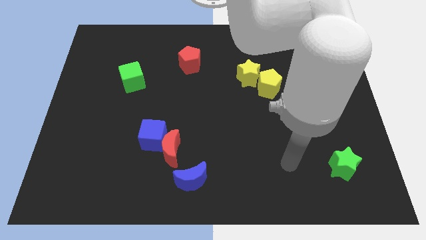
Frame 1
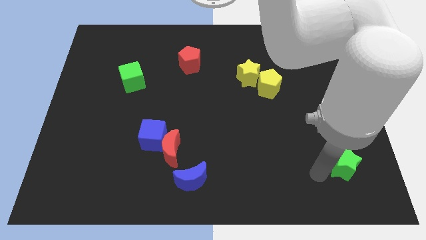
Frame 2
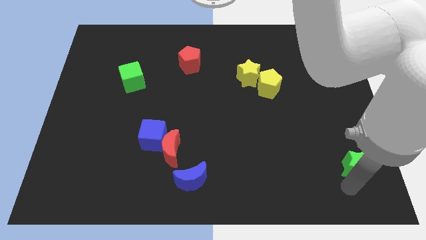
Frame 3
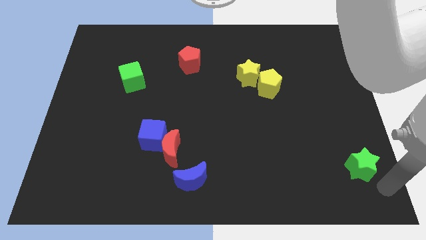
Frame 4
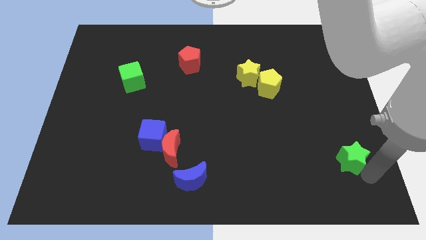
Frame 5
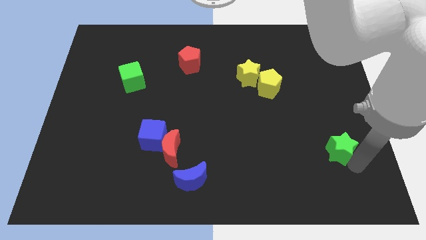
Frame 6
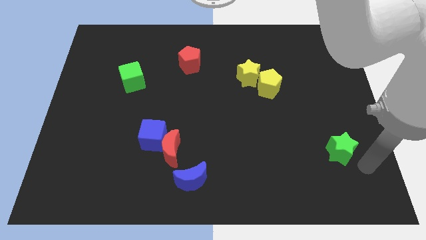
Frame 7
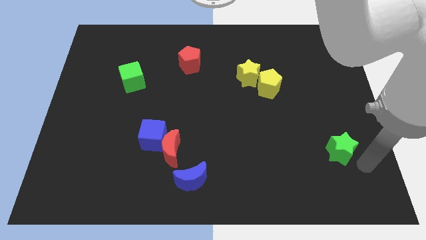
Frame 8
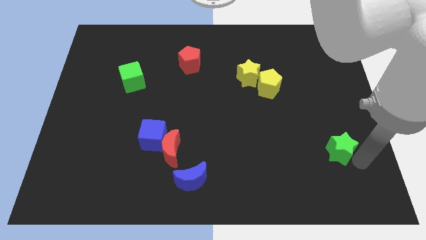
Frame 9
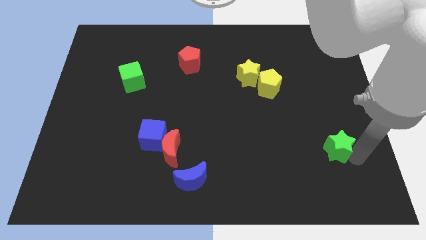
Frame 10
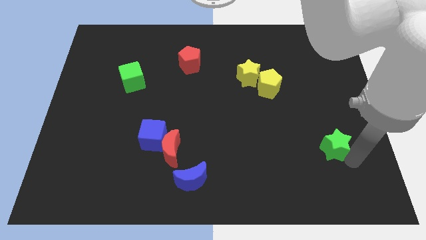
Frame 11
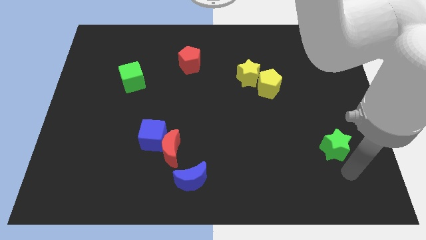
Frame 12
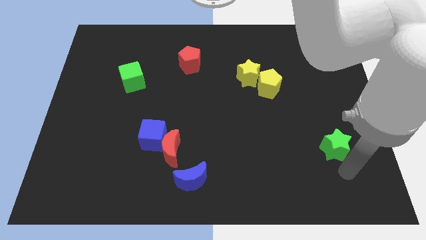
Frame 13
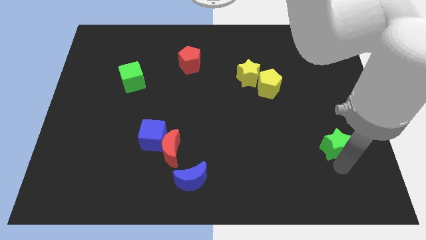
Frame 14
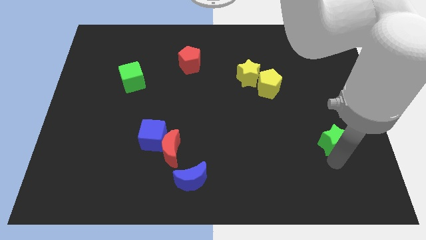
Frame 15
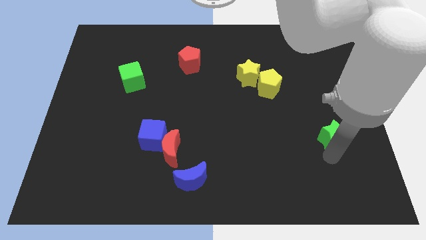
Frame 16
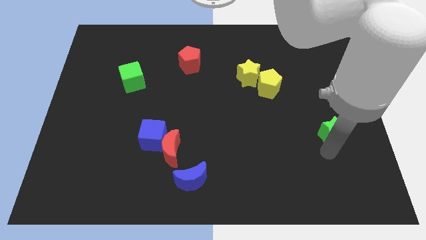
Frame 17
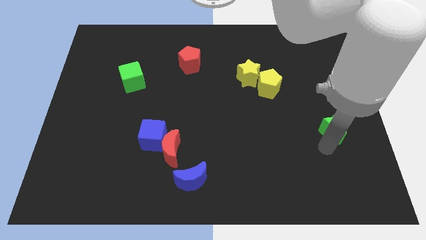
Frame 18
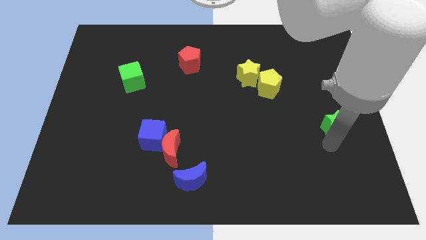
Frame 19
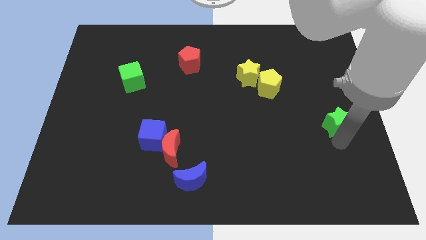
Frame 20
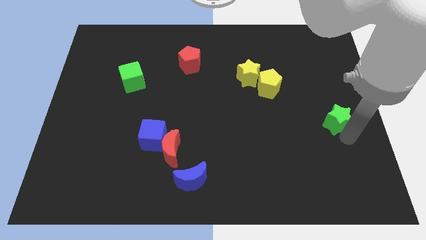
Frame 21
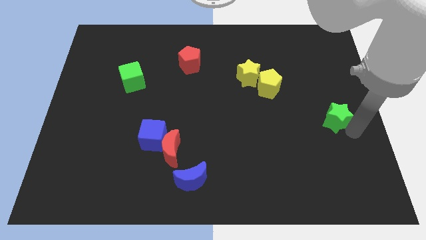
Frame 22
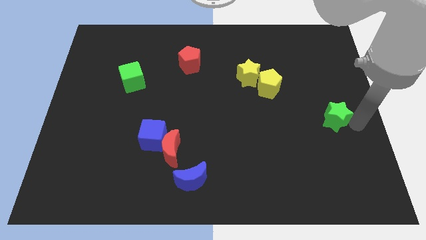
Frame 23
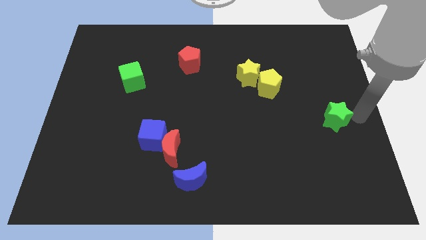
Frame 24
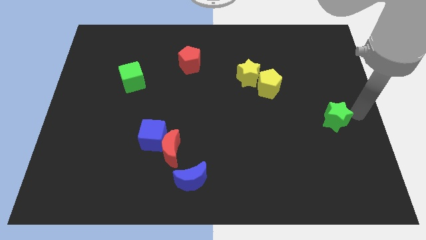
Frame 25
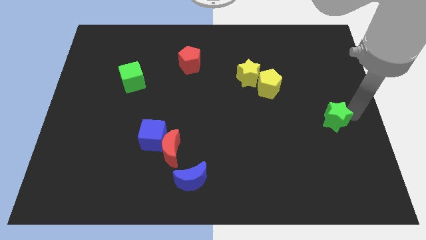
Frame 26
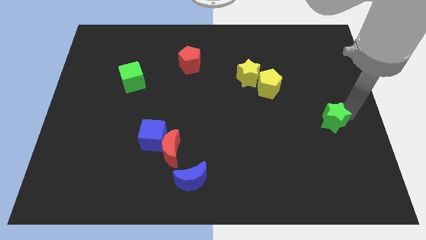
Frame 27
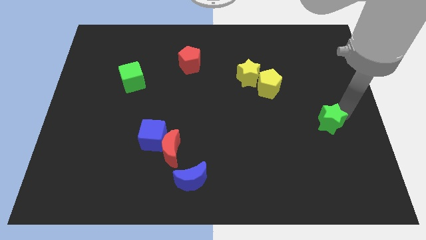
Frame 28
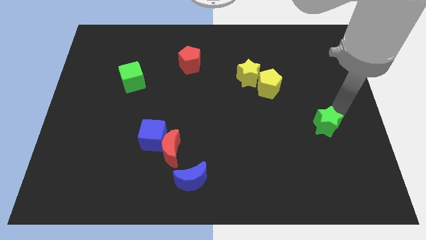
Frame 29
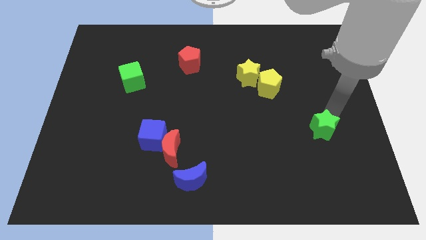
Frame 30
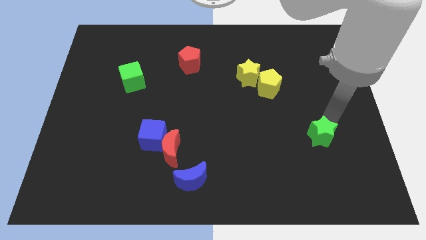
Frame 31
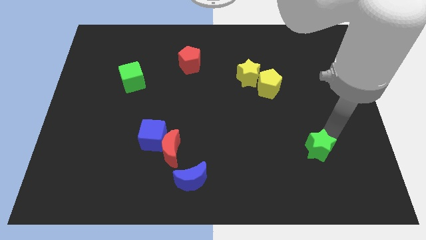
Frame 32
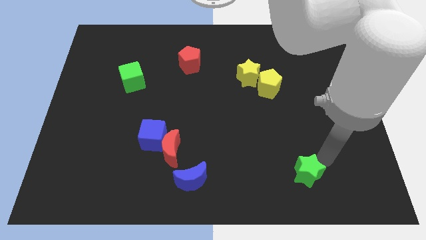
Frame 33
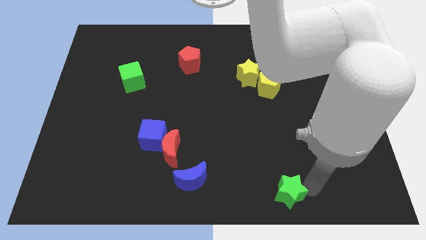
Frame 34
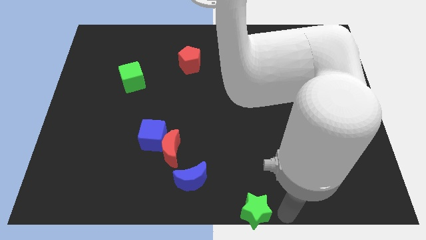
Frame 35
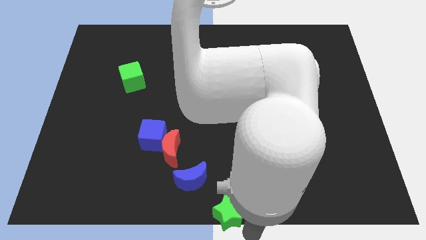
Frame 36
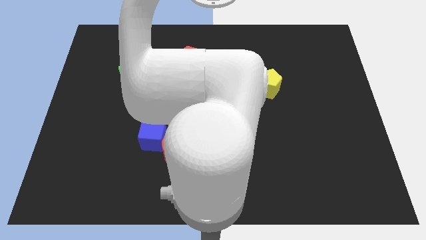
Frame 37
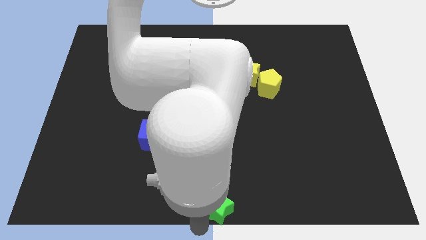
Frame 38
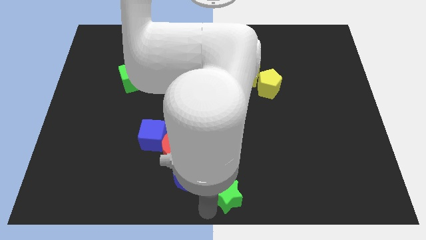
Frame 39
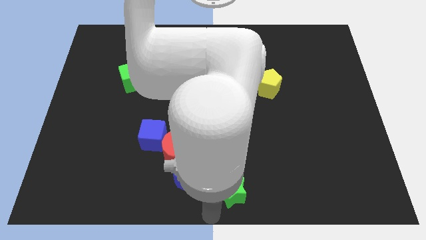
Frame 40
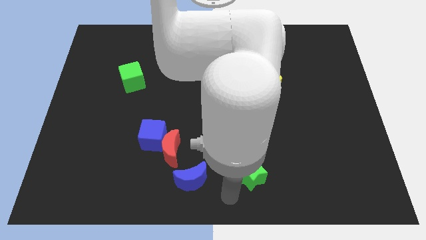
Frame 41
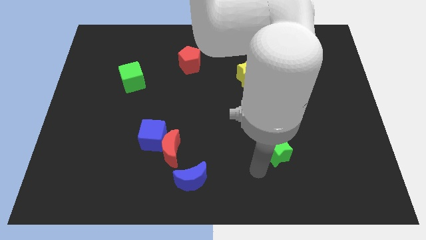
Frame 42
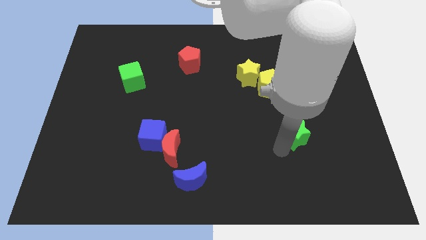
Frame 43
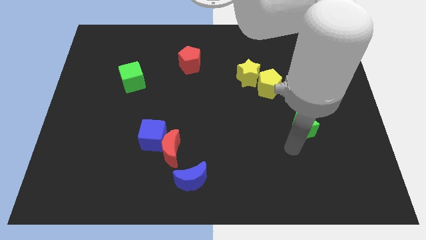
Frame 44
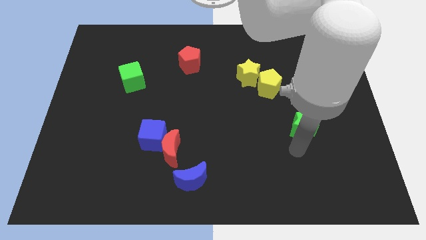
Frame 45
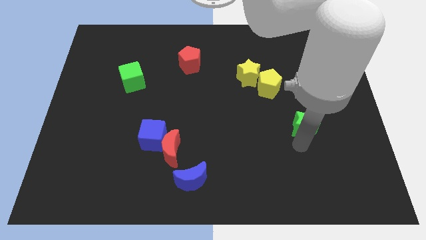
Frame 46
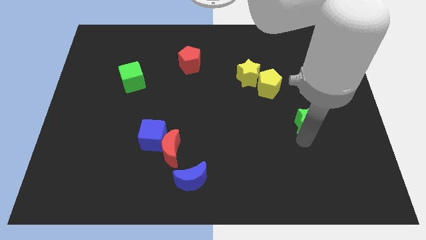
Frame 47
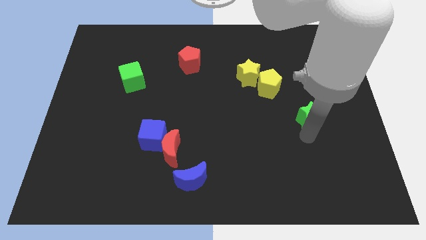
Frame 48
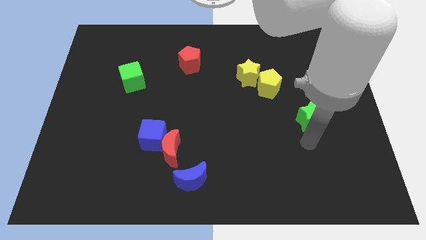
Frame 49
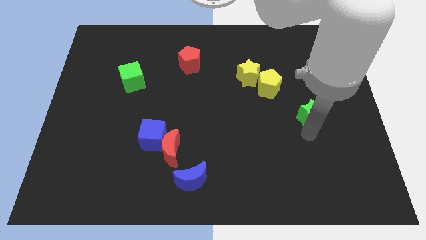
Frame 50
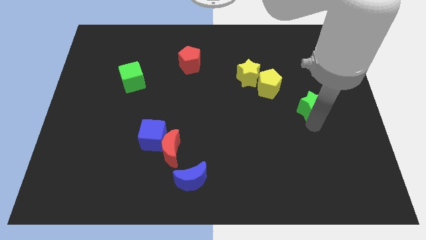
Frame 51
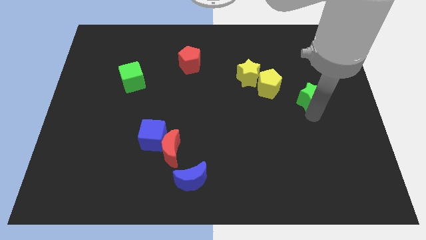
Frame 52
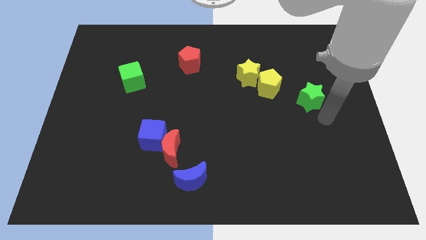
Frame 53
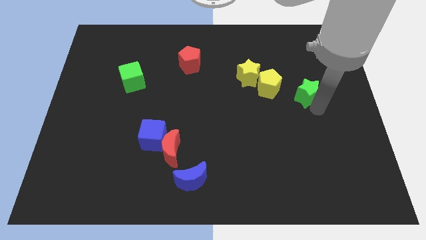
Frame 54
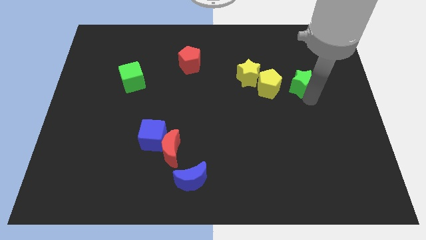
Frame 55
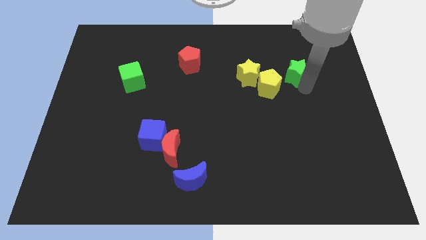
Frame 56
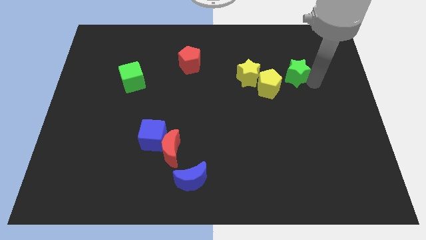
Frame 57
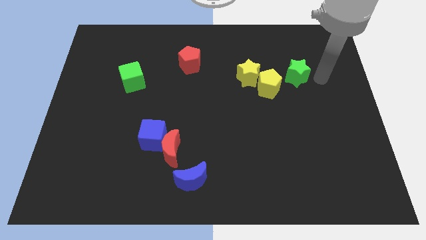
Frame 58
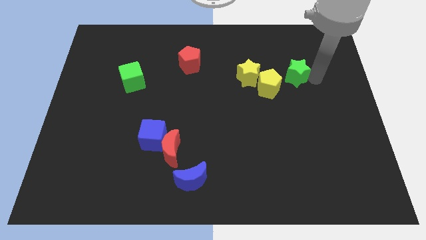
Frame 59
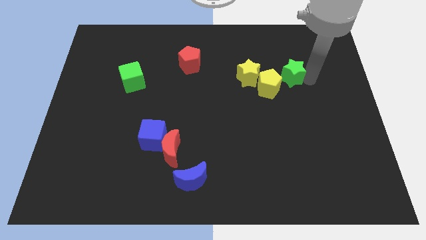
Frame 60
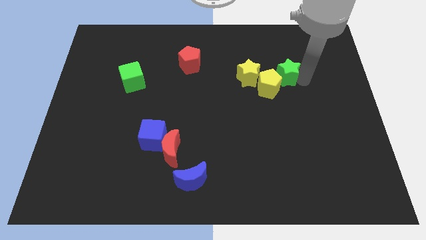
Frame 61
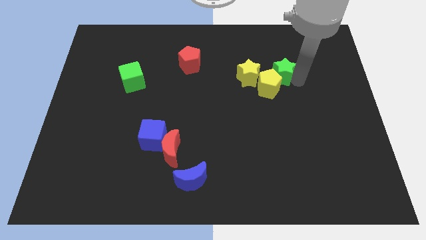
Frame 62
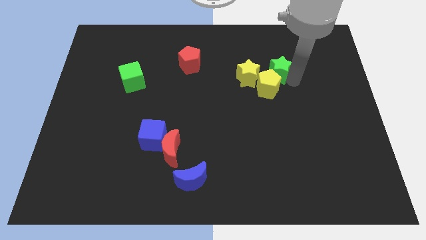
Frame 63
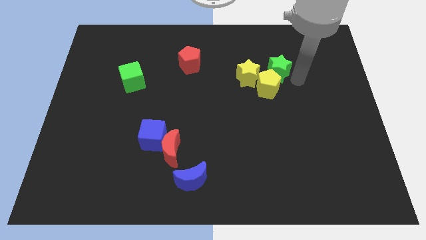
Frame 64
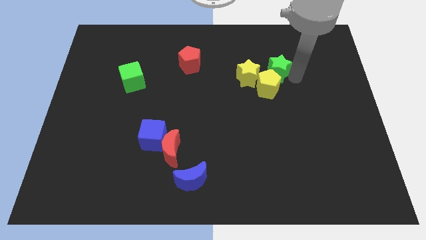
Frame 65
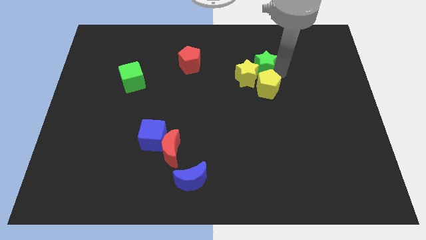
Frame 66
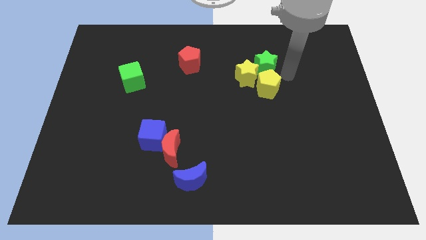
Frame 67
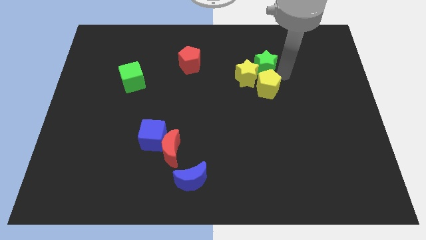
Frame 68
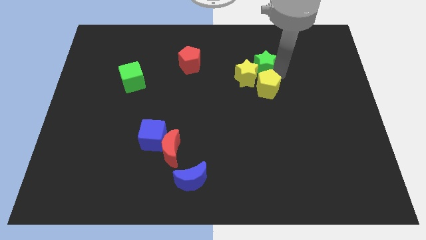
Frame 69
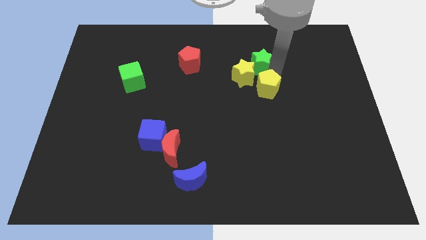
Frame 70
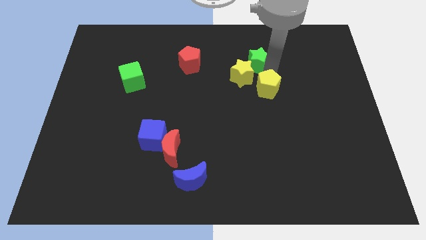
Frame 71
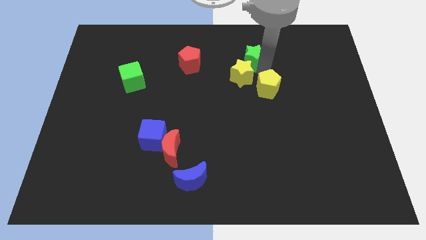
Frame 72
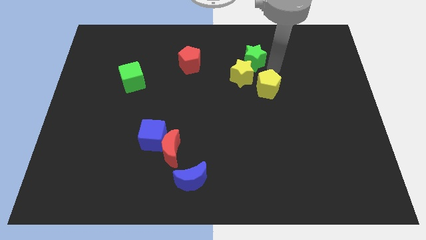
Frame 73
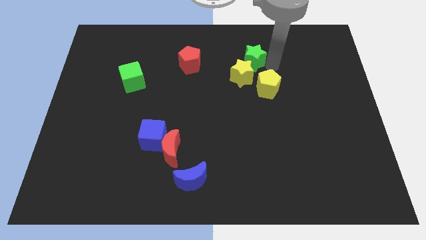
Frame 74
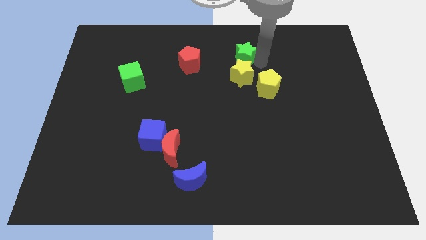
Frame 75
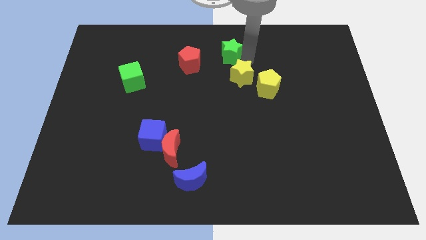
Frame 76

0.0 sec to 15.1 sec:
push the green star to the top
